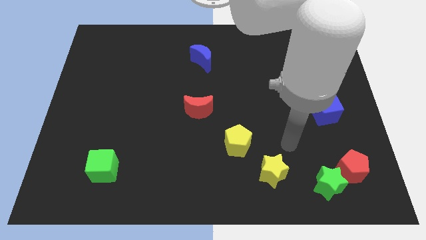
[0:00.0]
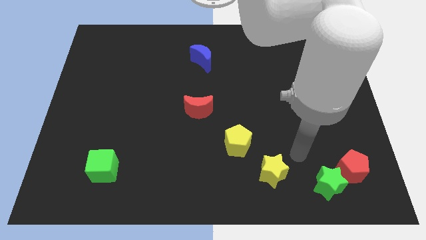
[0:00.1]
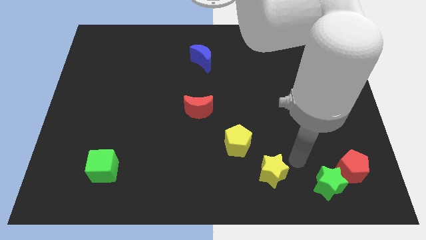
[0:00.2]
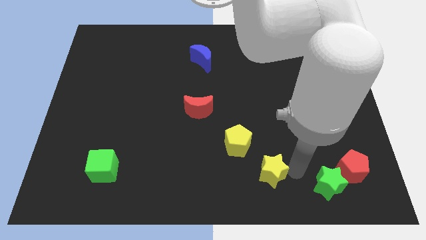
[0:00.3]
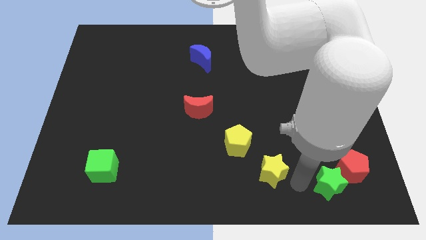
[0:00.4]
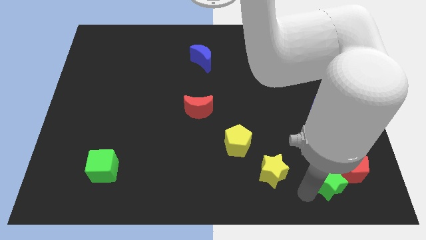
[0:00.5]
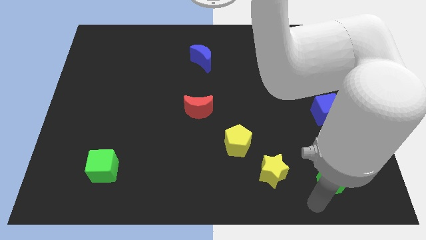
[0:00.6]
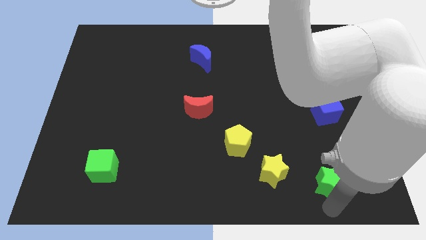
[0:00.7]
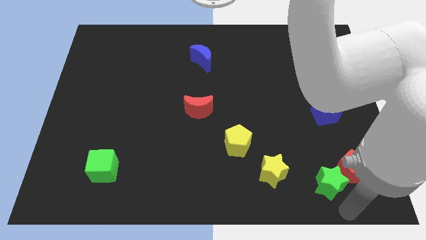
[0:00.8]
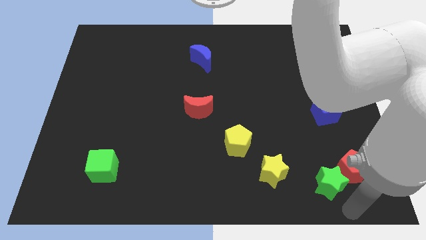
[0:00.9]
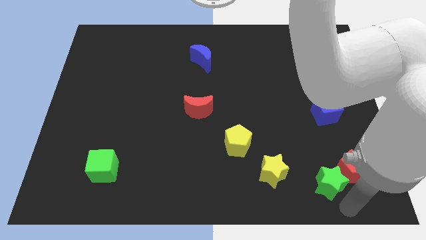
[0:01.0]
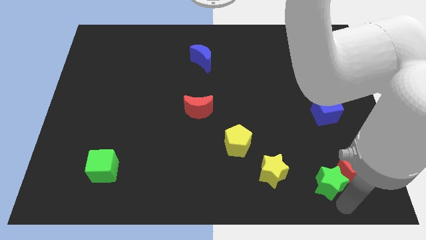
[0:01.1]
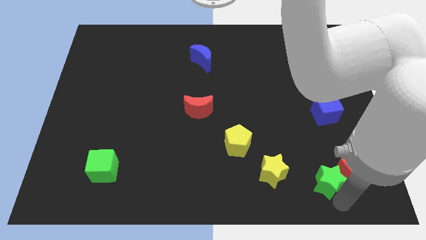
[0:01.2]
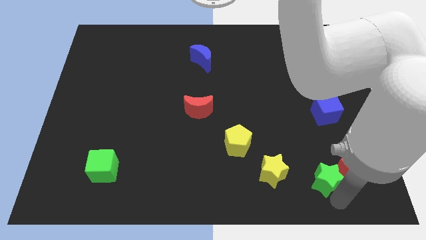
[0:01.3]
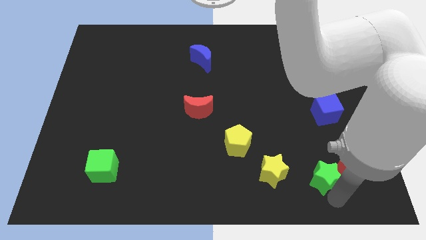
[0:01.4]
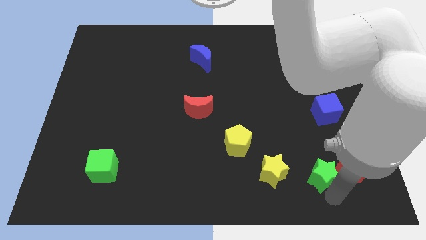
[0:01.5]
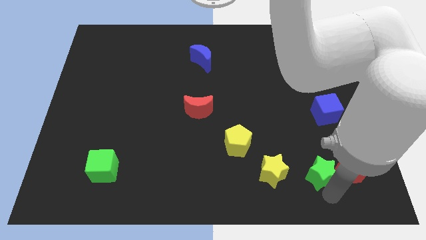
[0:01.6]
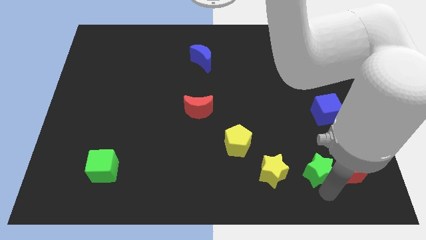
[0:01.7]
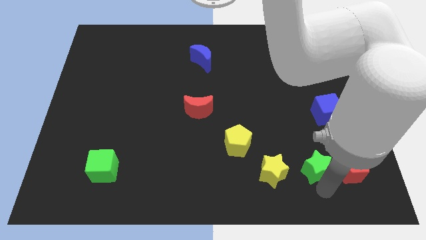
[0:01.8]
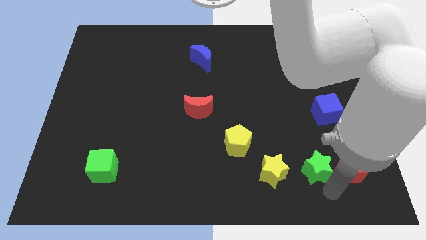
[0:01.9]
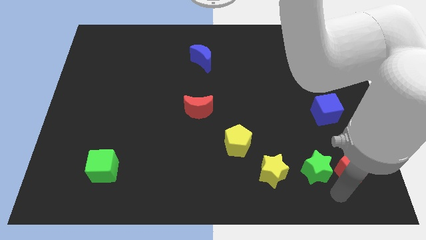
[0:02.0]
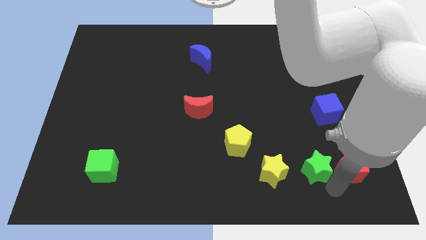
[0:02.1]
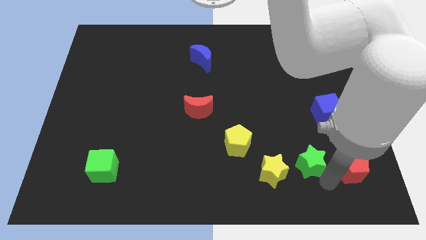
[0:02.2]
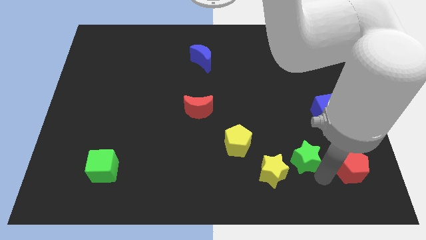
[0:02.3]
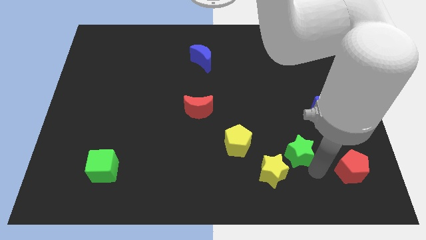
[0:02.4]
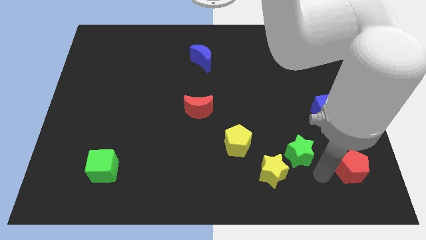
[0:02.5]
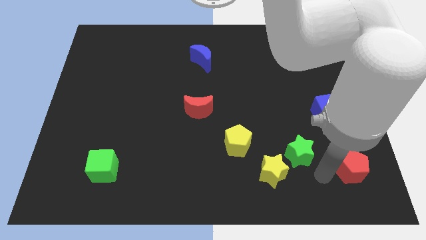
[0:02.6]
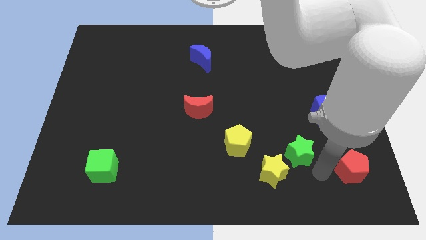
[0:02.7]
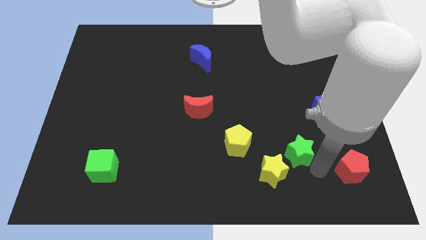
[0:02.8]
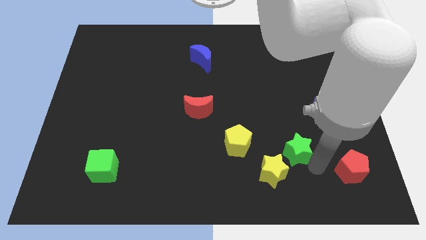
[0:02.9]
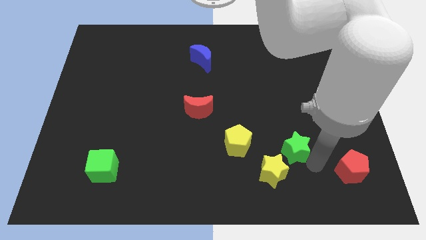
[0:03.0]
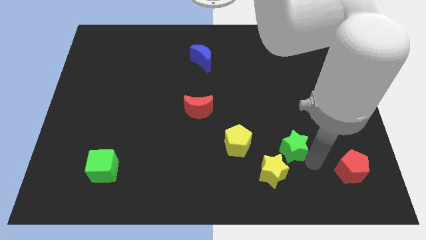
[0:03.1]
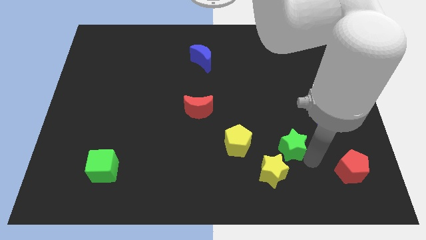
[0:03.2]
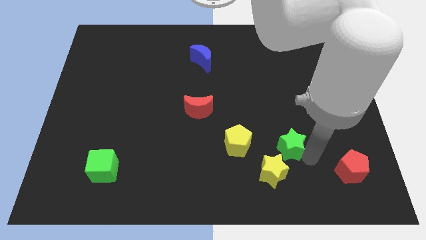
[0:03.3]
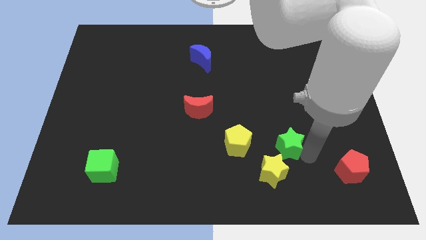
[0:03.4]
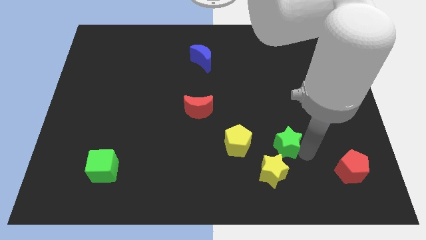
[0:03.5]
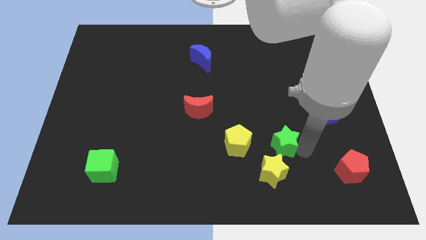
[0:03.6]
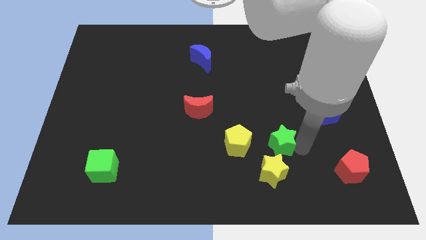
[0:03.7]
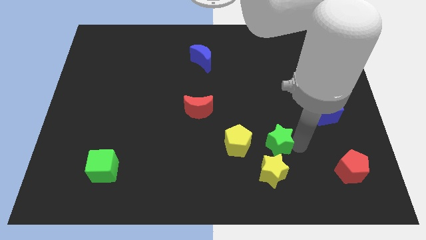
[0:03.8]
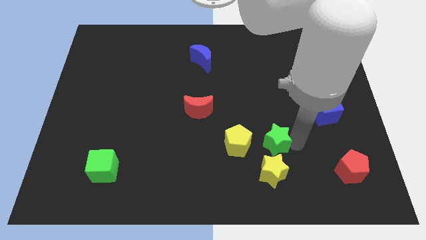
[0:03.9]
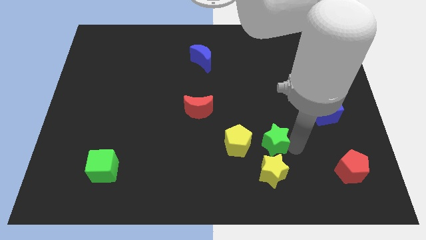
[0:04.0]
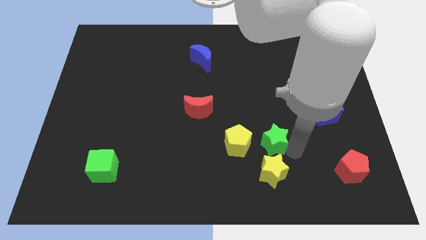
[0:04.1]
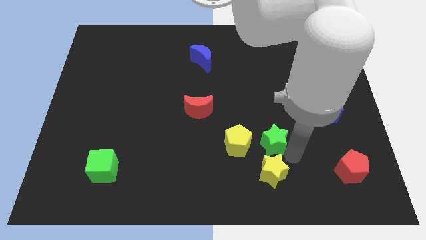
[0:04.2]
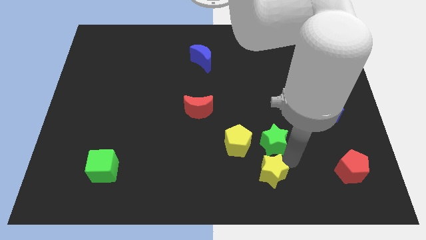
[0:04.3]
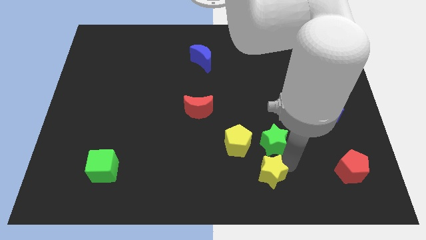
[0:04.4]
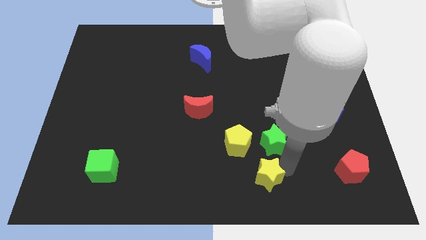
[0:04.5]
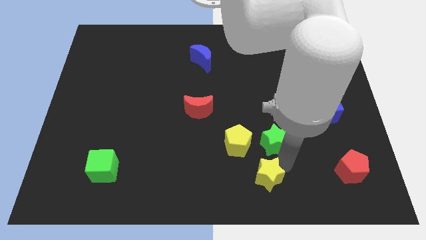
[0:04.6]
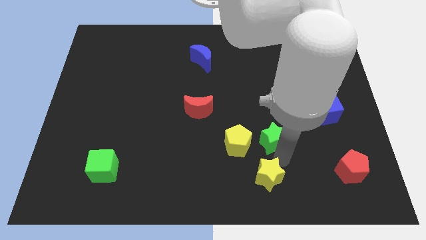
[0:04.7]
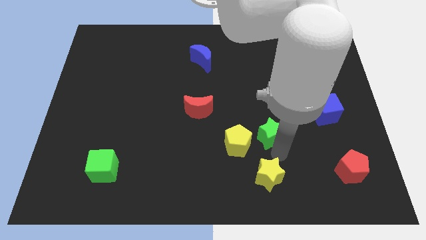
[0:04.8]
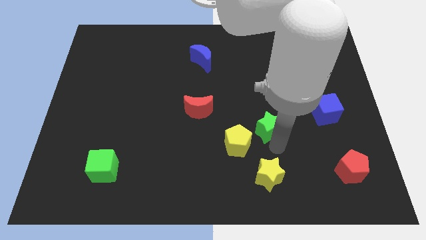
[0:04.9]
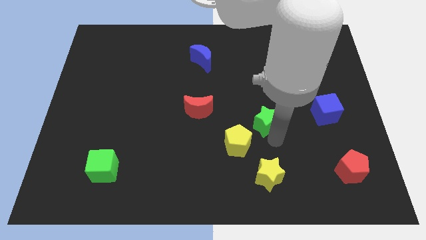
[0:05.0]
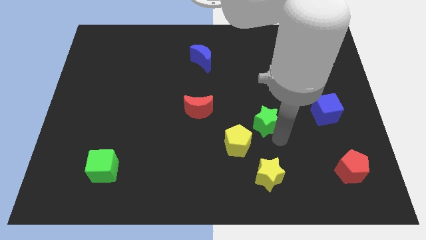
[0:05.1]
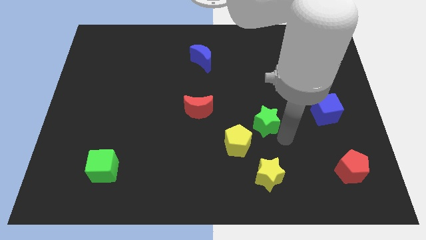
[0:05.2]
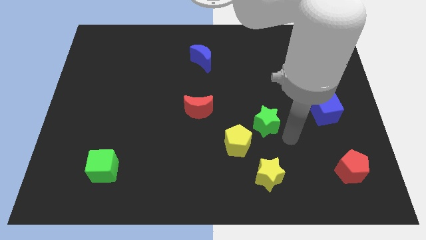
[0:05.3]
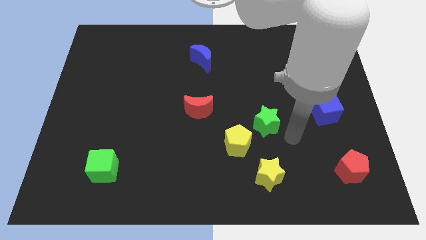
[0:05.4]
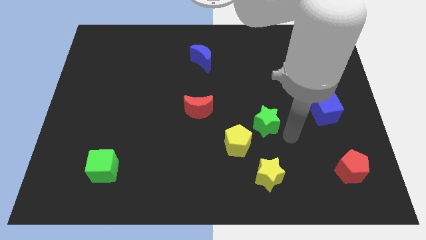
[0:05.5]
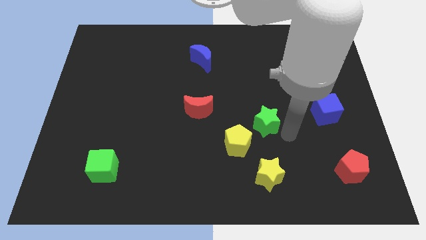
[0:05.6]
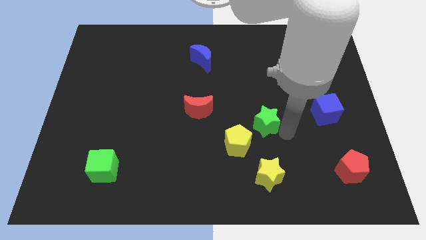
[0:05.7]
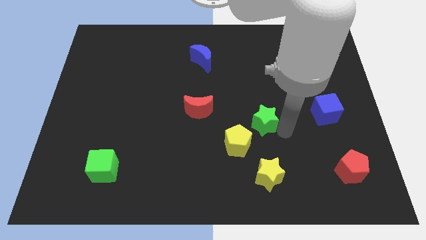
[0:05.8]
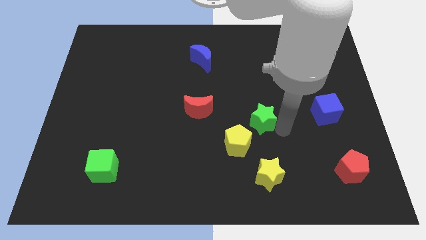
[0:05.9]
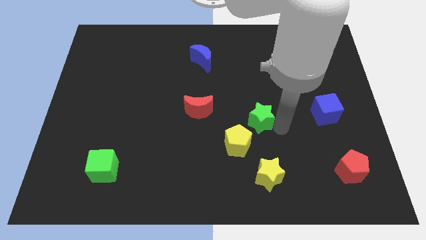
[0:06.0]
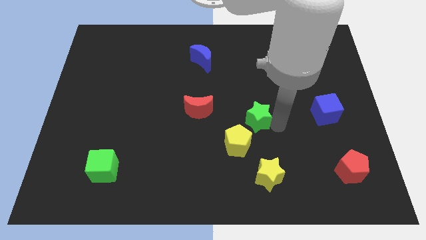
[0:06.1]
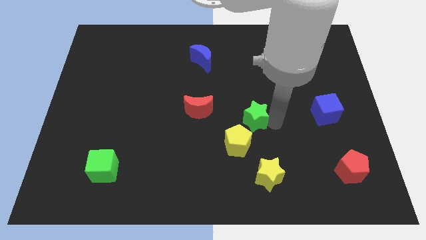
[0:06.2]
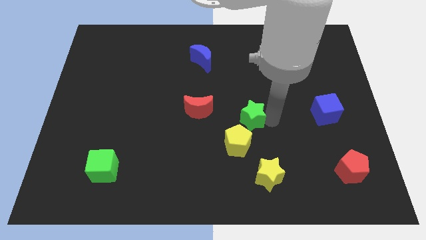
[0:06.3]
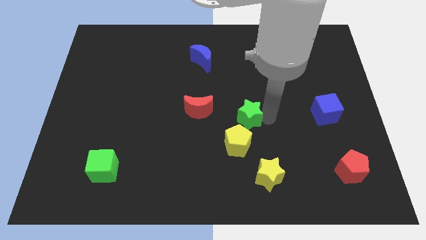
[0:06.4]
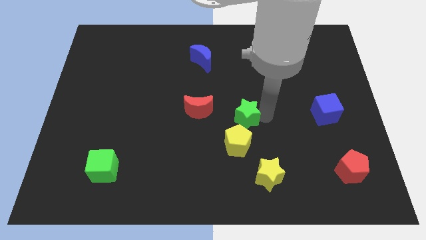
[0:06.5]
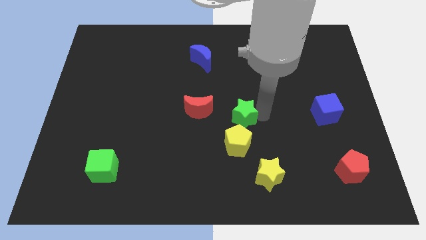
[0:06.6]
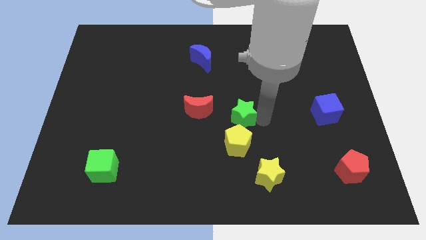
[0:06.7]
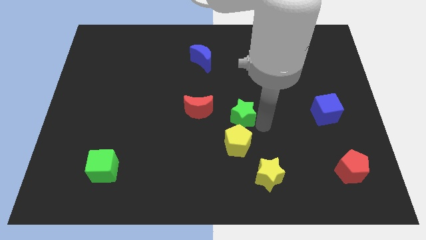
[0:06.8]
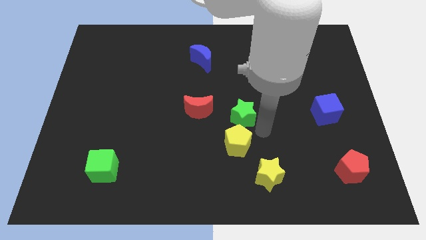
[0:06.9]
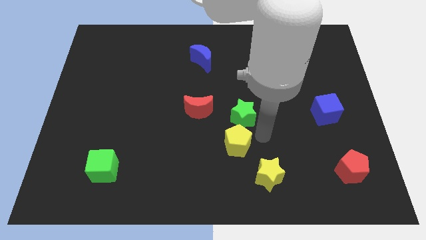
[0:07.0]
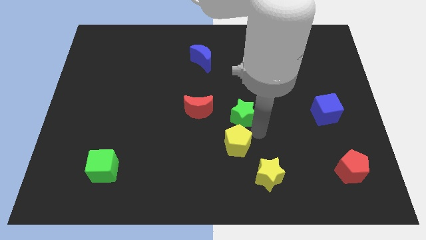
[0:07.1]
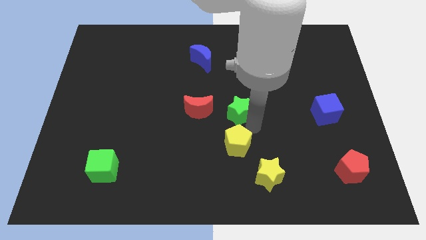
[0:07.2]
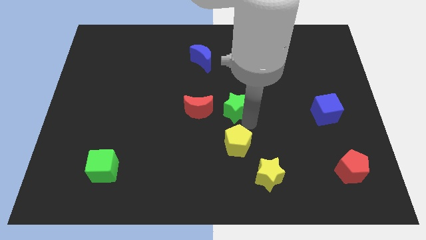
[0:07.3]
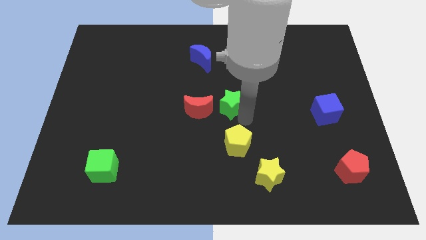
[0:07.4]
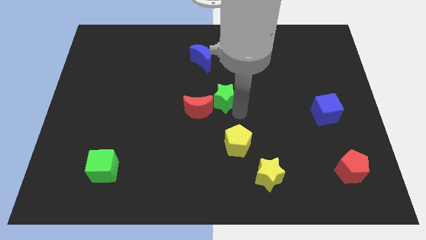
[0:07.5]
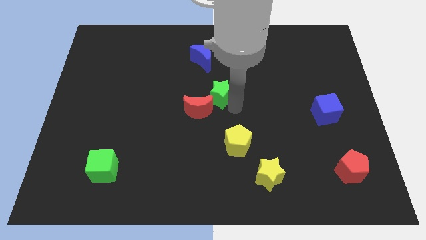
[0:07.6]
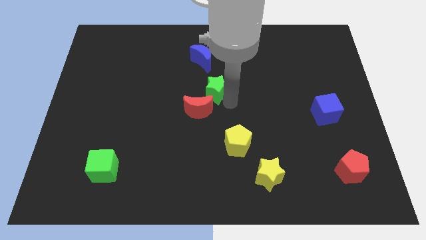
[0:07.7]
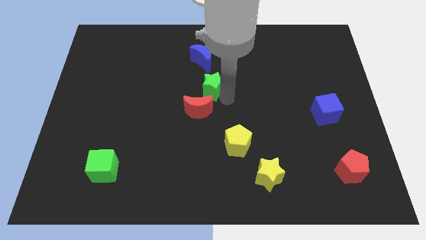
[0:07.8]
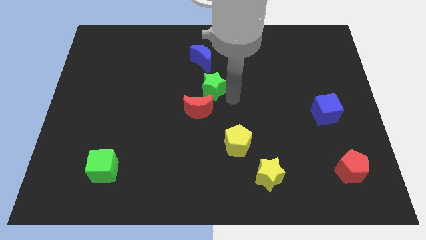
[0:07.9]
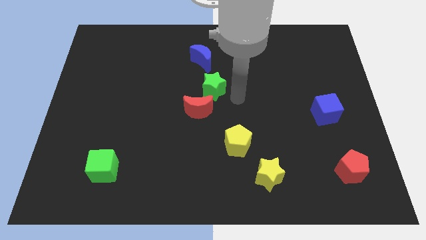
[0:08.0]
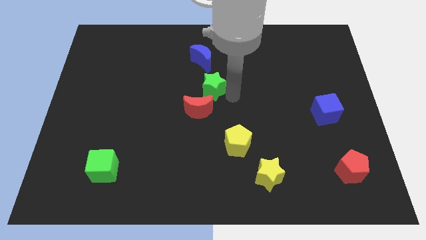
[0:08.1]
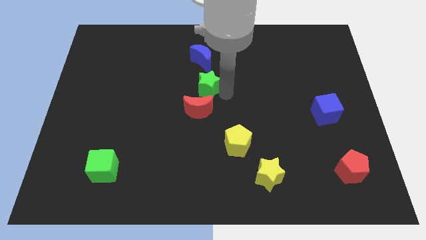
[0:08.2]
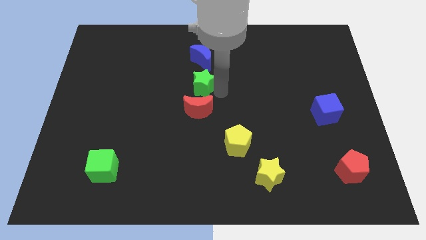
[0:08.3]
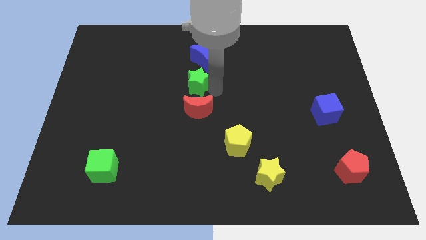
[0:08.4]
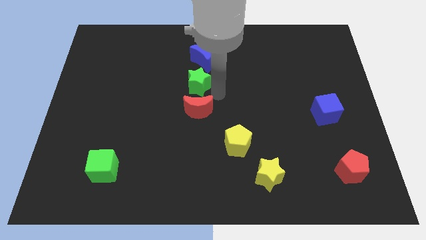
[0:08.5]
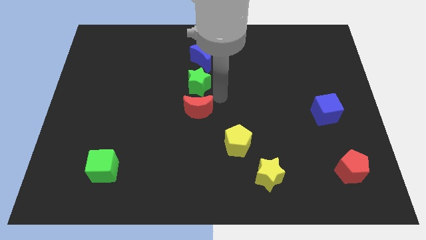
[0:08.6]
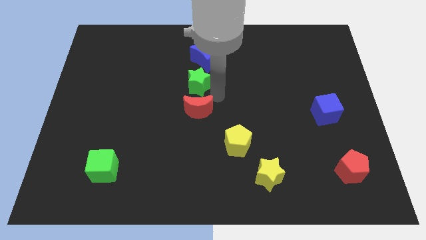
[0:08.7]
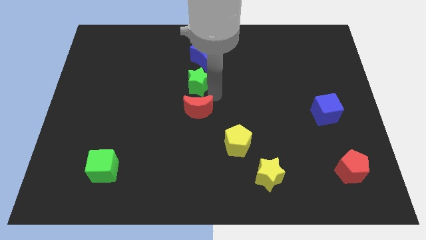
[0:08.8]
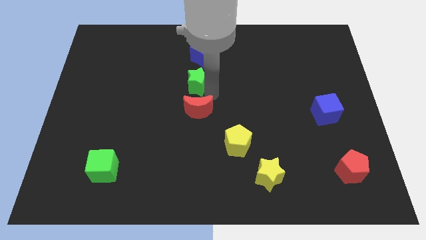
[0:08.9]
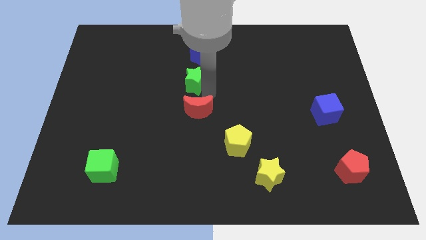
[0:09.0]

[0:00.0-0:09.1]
push the green star to the bottom left of the blue moon
